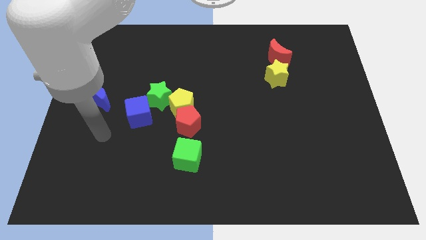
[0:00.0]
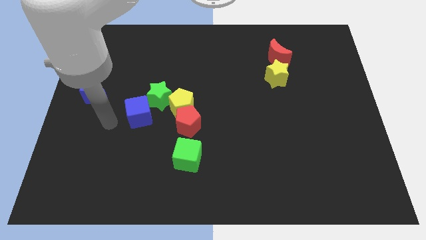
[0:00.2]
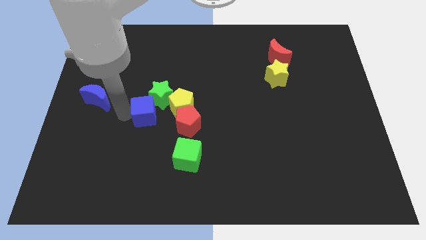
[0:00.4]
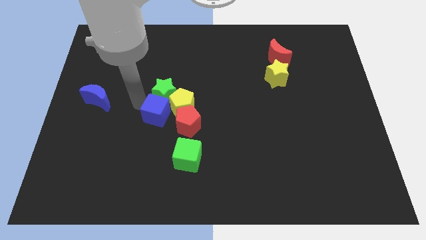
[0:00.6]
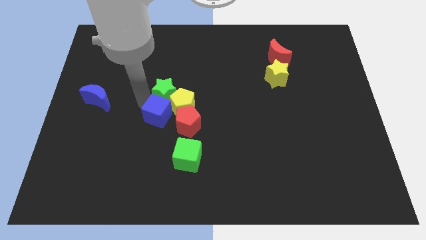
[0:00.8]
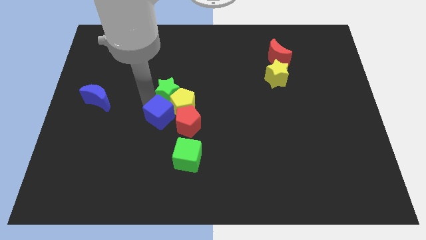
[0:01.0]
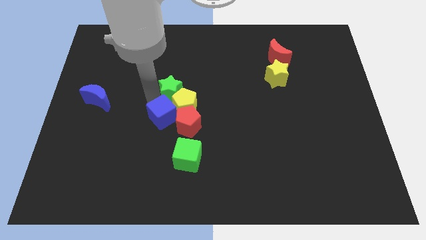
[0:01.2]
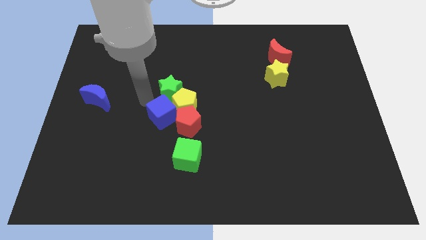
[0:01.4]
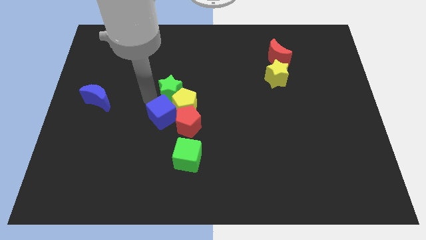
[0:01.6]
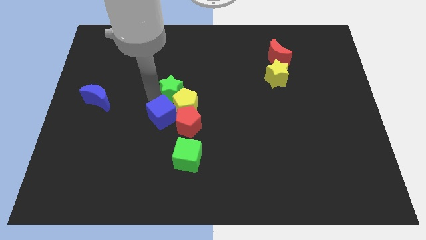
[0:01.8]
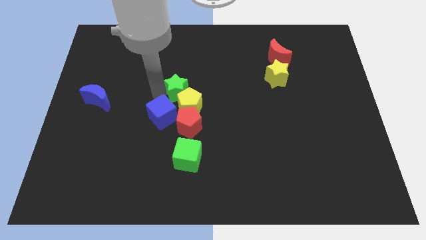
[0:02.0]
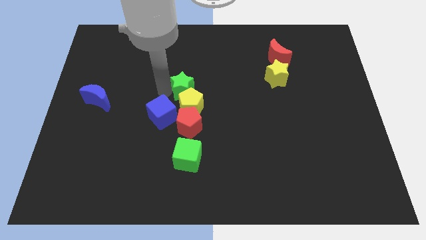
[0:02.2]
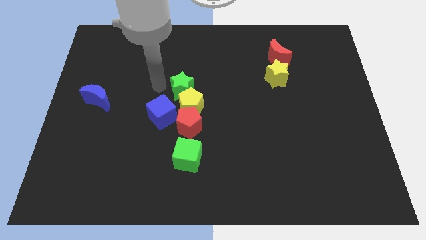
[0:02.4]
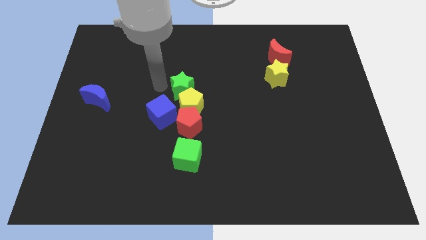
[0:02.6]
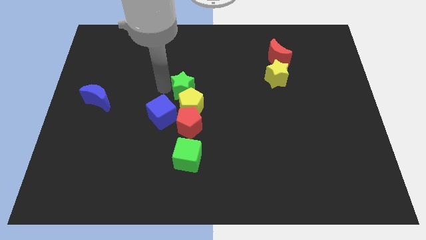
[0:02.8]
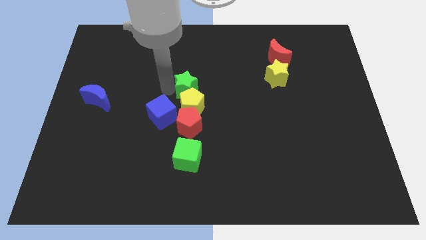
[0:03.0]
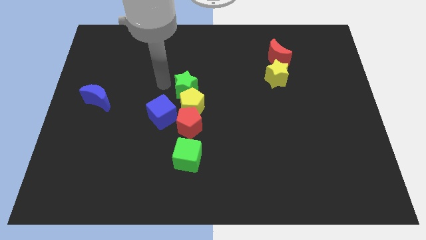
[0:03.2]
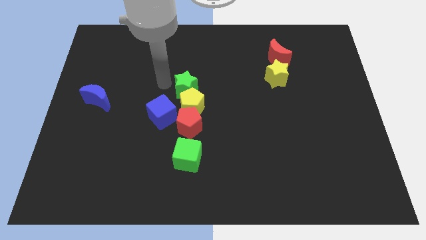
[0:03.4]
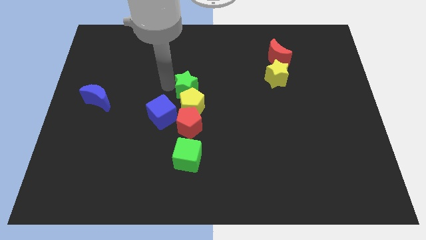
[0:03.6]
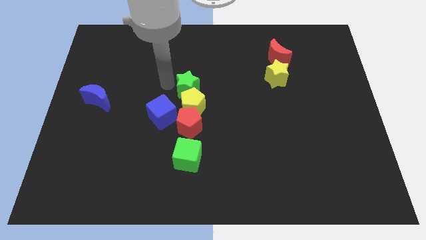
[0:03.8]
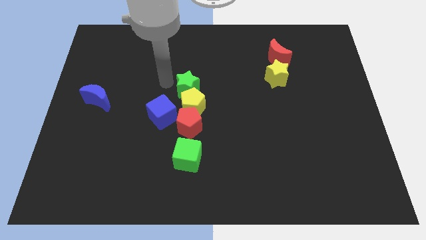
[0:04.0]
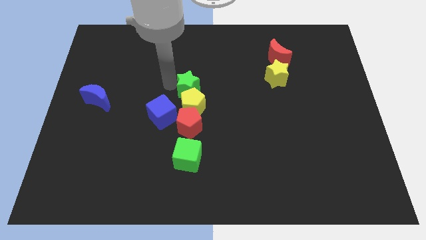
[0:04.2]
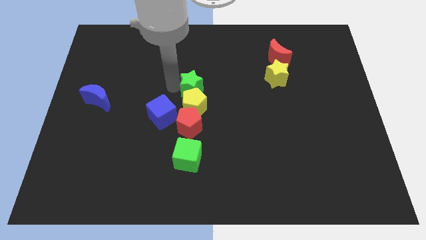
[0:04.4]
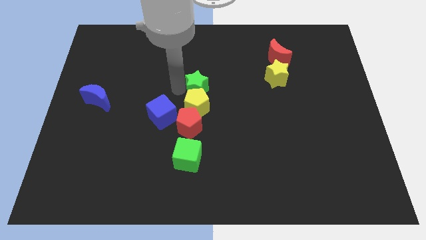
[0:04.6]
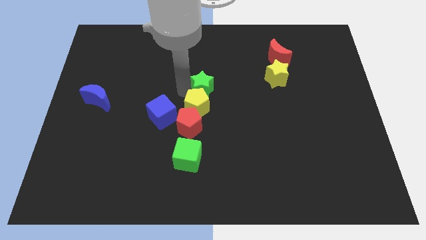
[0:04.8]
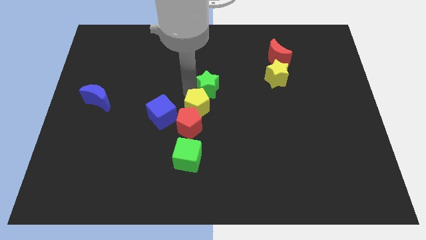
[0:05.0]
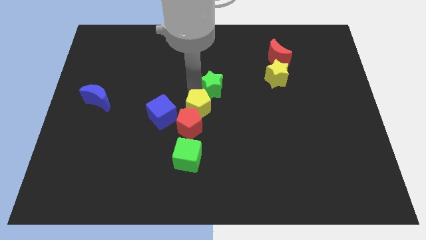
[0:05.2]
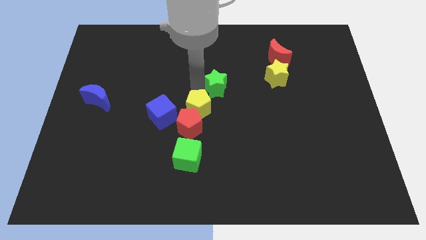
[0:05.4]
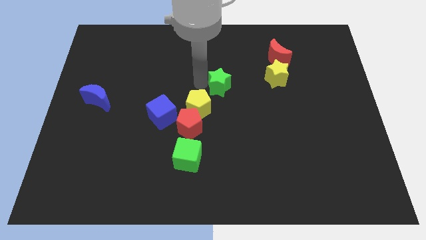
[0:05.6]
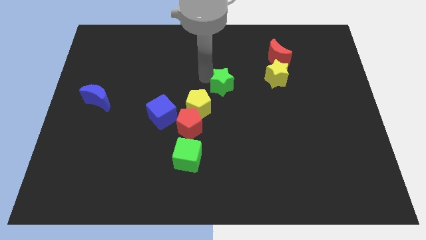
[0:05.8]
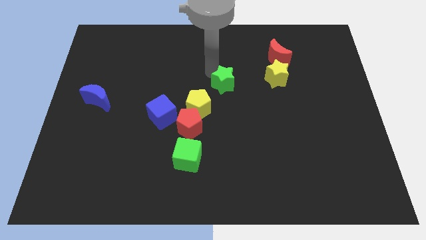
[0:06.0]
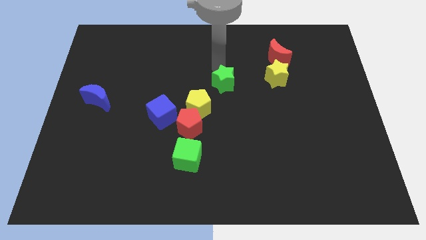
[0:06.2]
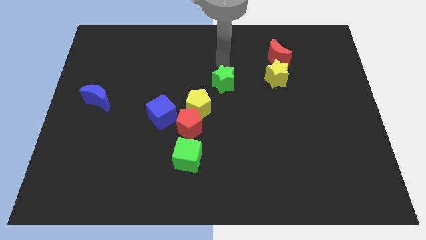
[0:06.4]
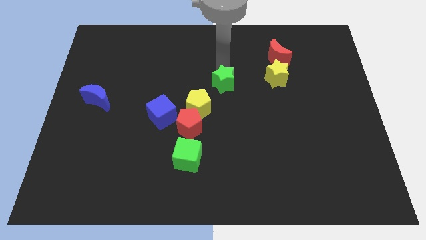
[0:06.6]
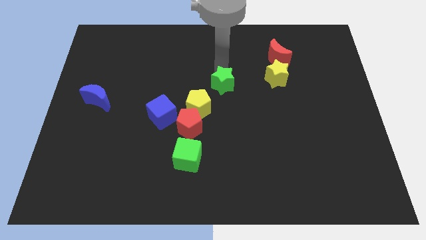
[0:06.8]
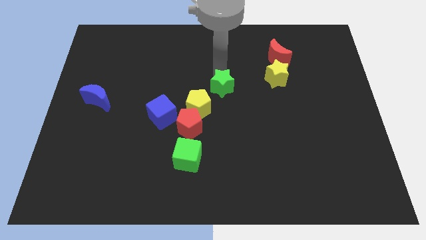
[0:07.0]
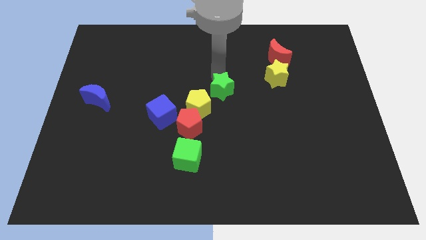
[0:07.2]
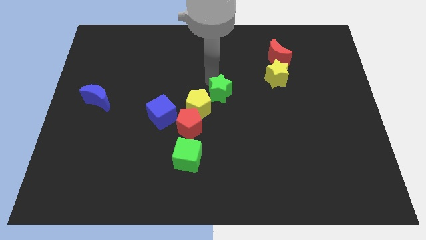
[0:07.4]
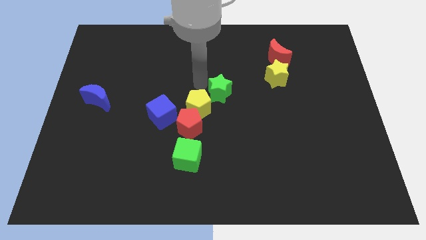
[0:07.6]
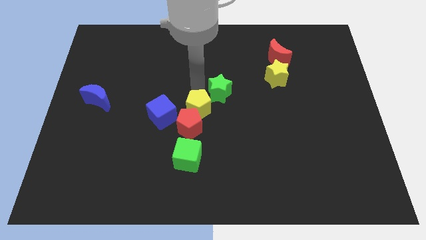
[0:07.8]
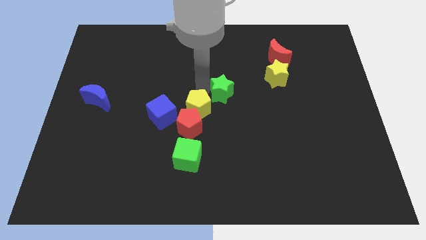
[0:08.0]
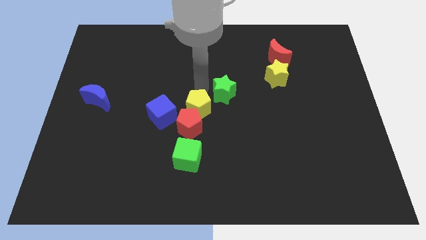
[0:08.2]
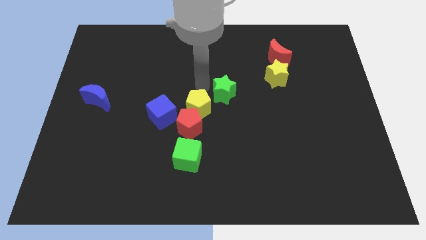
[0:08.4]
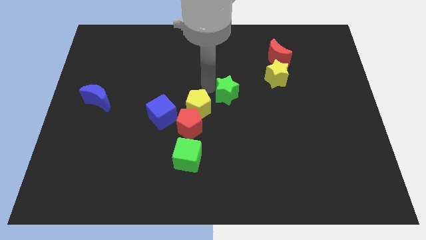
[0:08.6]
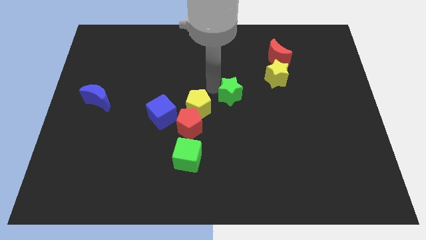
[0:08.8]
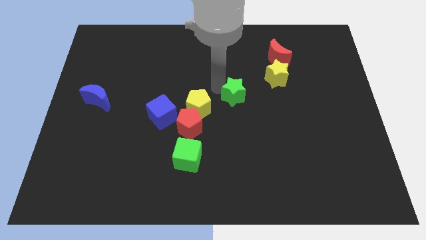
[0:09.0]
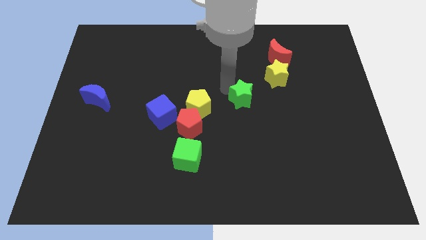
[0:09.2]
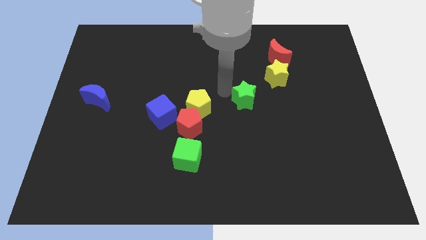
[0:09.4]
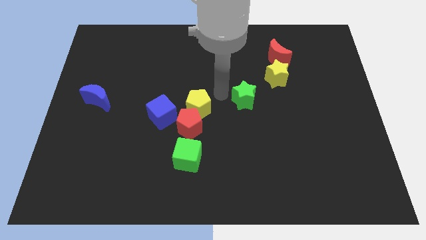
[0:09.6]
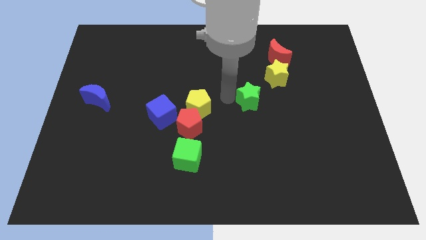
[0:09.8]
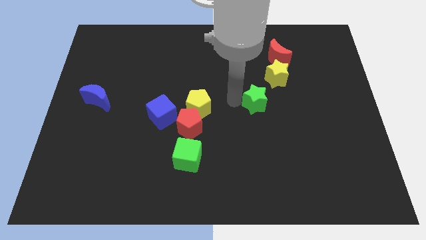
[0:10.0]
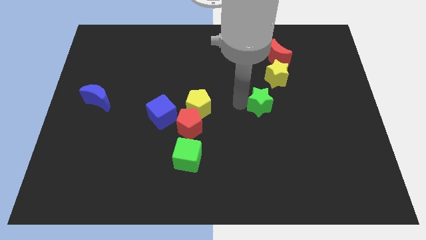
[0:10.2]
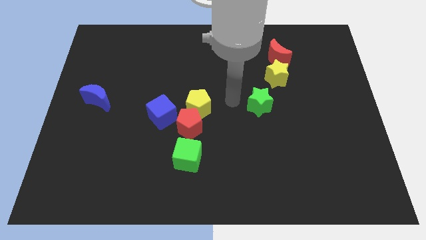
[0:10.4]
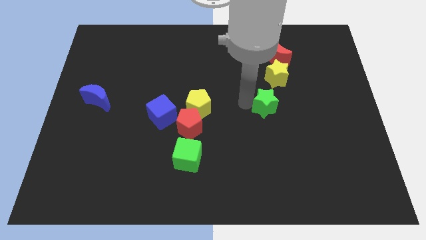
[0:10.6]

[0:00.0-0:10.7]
push the green star below the yellow star

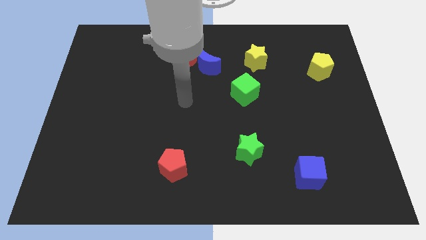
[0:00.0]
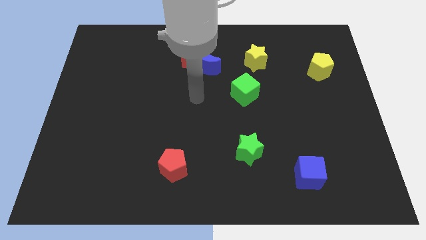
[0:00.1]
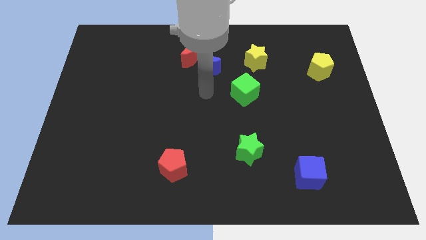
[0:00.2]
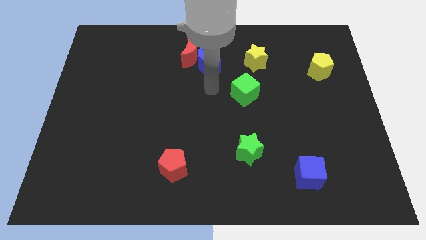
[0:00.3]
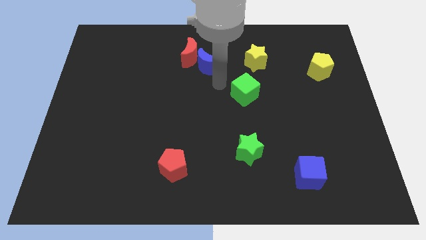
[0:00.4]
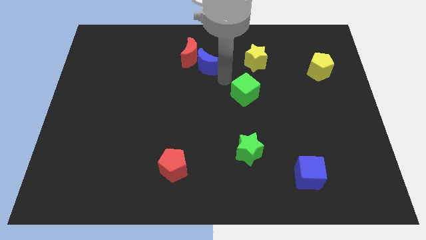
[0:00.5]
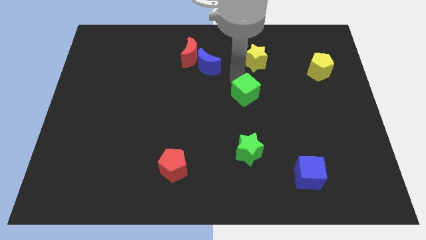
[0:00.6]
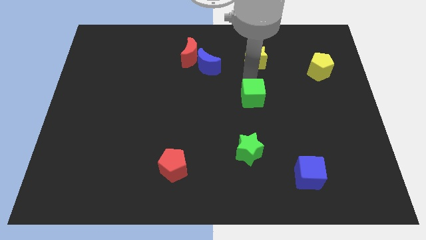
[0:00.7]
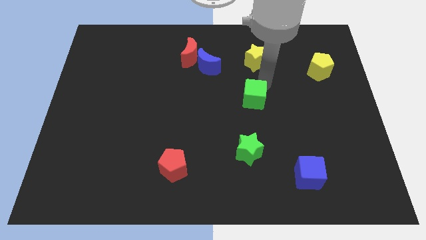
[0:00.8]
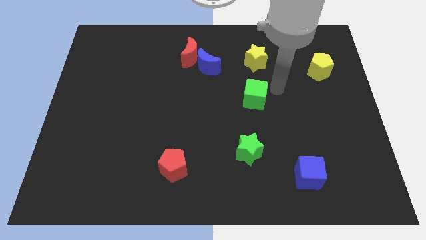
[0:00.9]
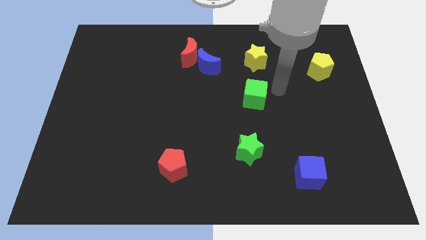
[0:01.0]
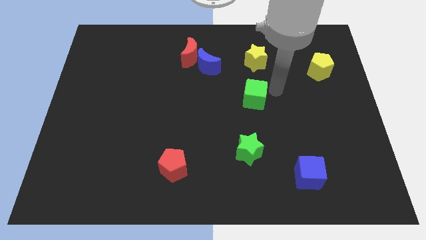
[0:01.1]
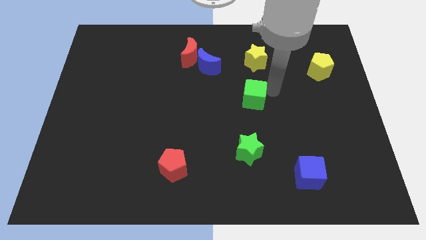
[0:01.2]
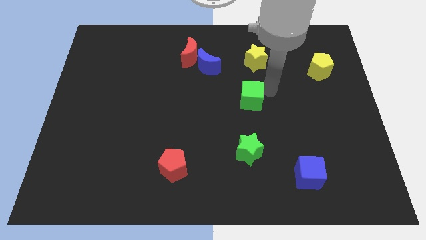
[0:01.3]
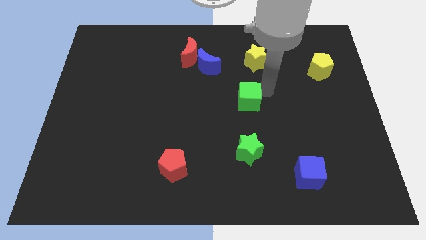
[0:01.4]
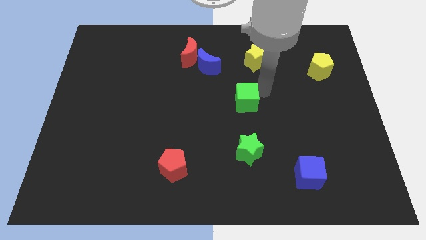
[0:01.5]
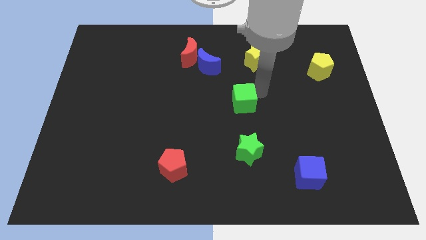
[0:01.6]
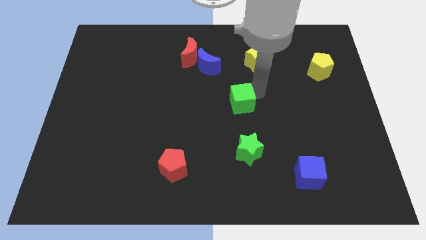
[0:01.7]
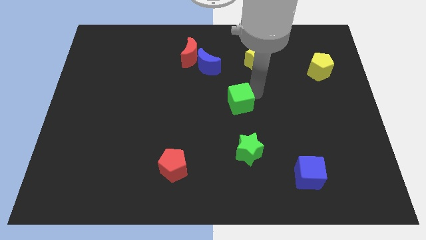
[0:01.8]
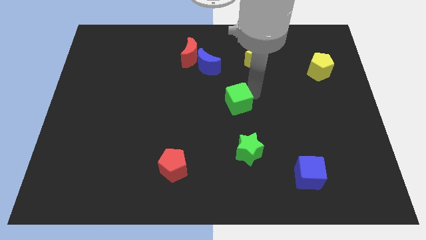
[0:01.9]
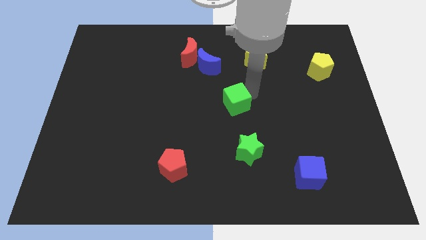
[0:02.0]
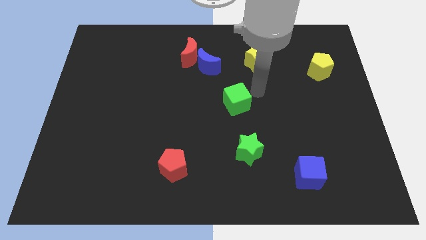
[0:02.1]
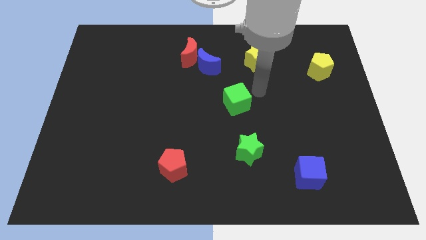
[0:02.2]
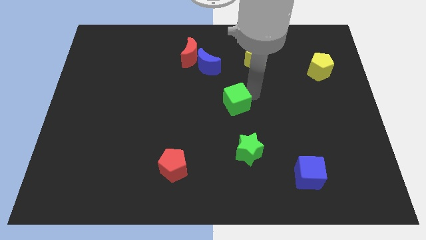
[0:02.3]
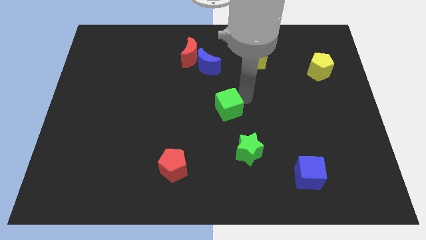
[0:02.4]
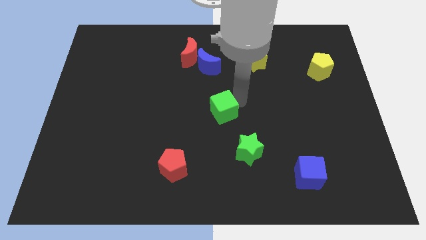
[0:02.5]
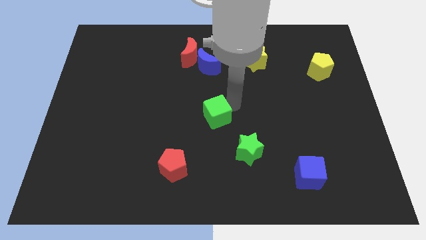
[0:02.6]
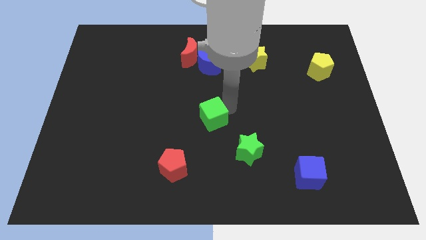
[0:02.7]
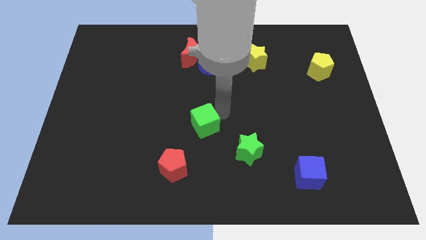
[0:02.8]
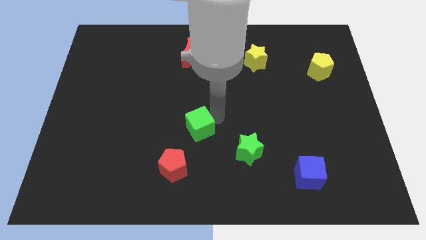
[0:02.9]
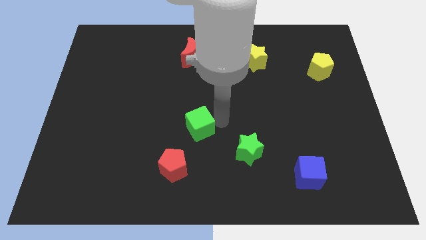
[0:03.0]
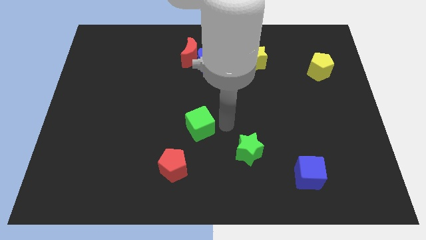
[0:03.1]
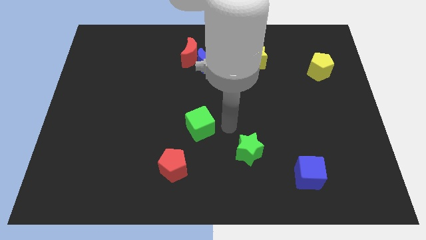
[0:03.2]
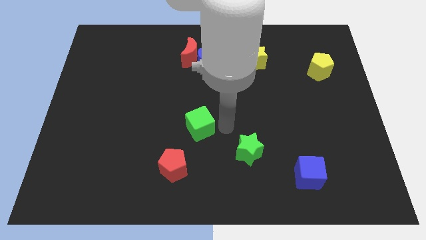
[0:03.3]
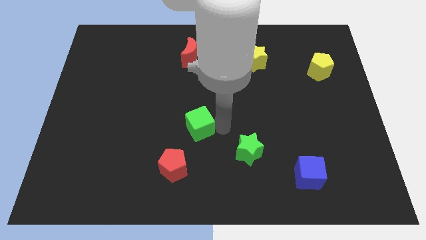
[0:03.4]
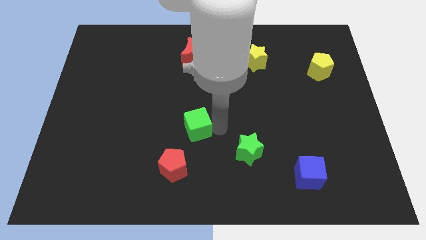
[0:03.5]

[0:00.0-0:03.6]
push the green cube to the top side of the red pentagon
